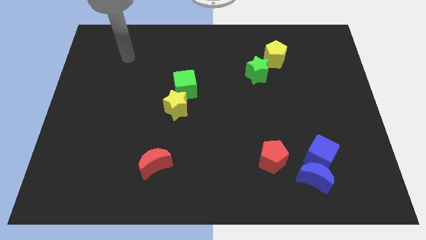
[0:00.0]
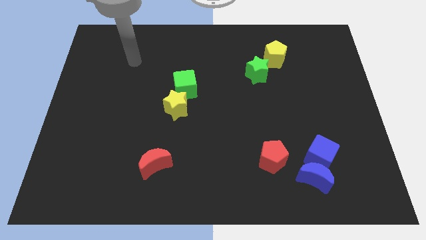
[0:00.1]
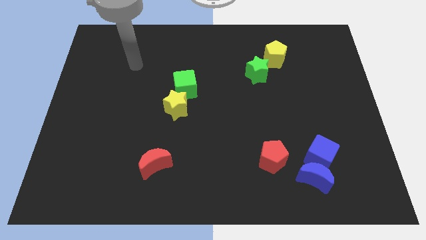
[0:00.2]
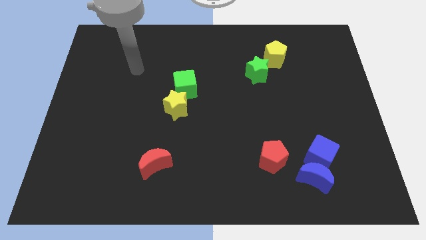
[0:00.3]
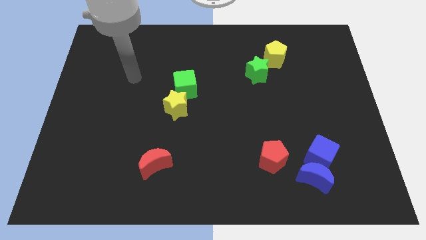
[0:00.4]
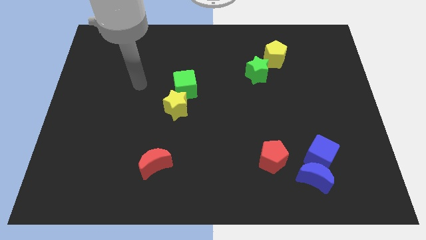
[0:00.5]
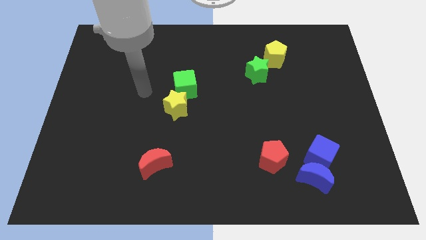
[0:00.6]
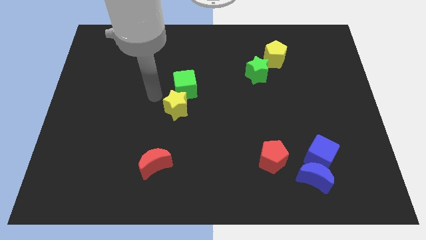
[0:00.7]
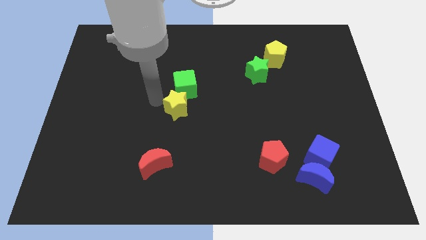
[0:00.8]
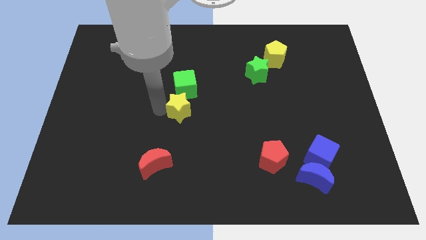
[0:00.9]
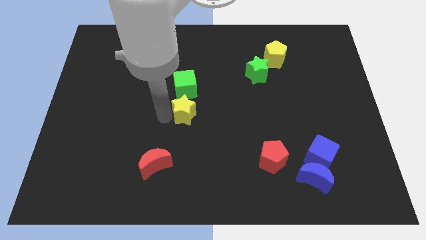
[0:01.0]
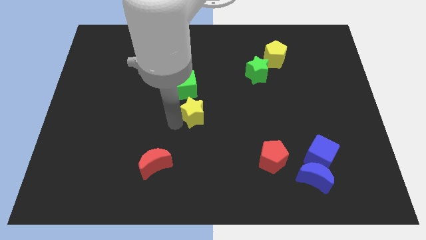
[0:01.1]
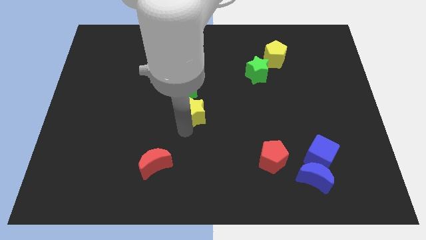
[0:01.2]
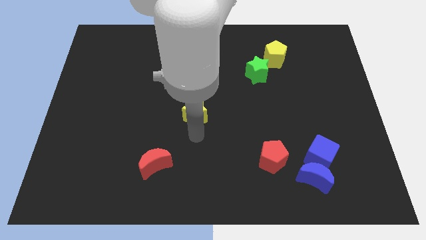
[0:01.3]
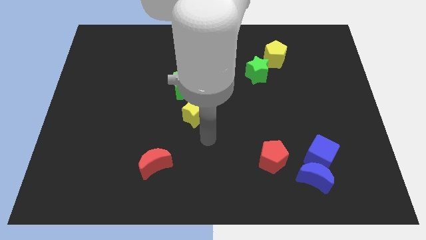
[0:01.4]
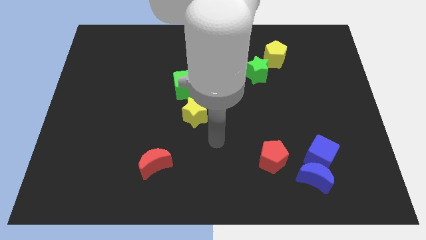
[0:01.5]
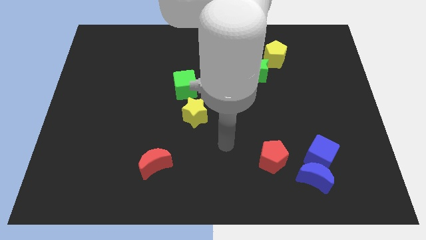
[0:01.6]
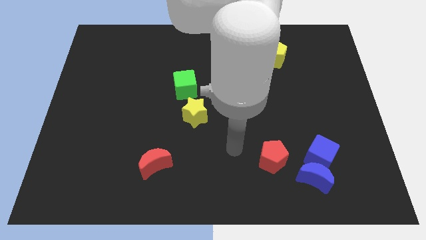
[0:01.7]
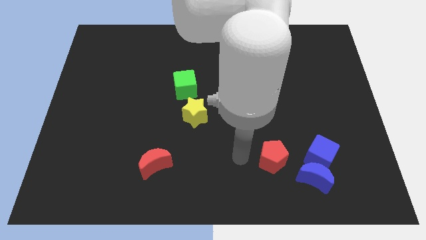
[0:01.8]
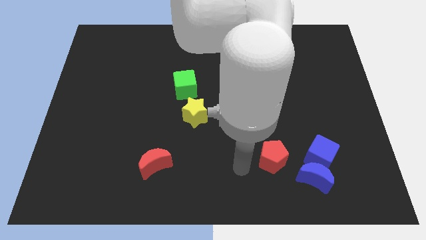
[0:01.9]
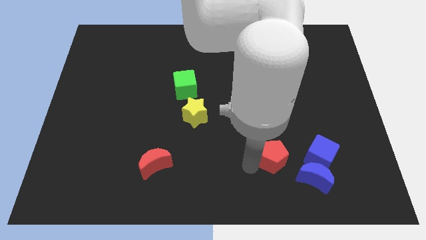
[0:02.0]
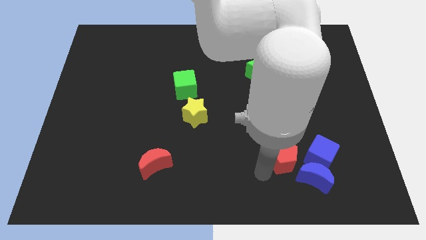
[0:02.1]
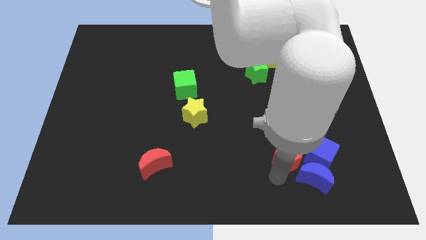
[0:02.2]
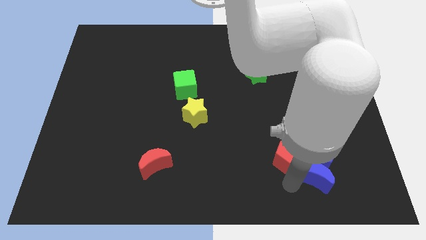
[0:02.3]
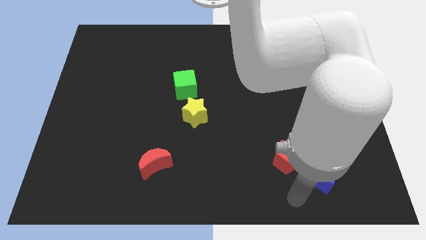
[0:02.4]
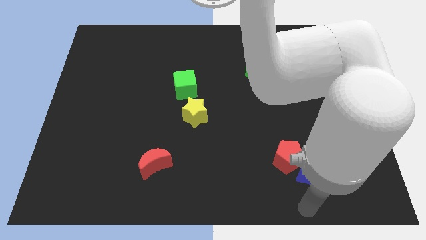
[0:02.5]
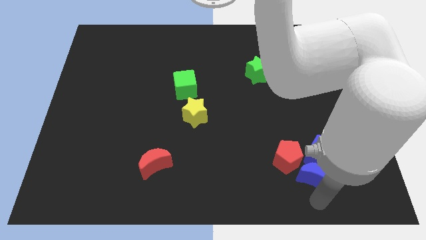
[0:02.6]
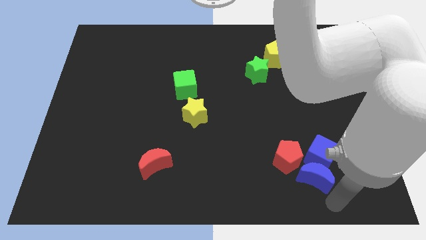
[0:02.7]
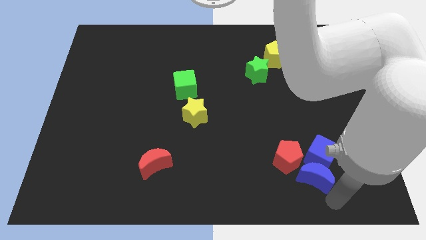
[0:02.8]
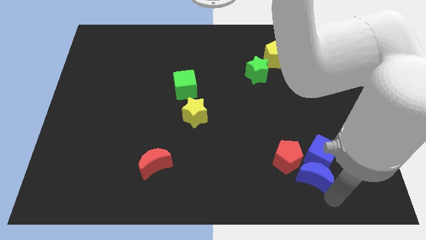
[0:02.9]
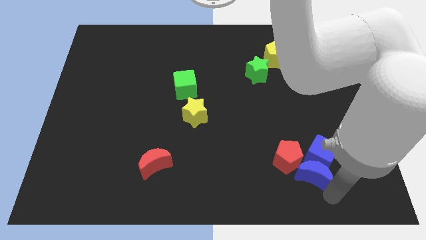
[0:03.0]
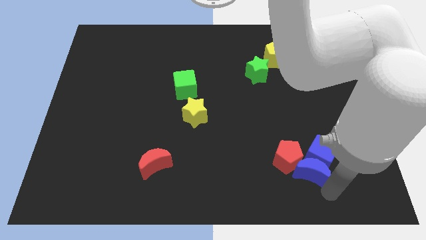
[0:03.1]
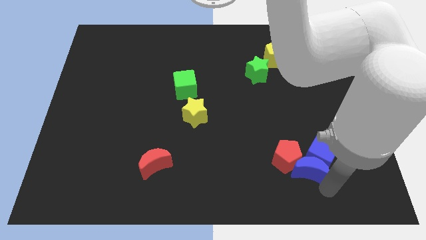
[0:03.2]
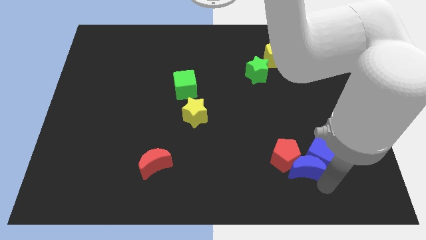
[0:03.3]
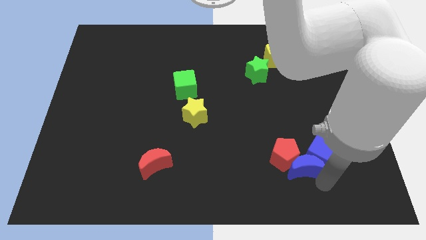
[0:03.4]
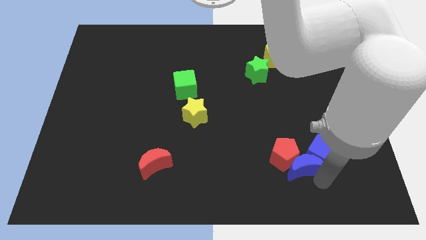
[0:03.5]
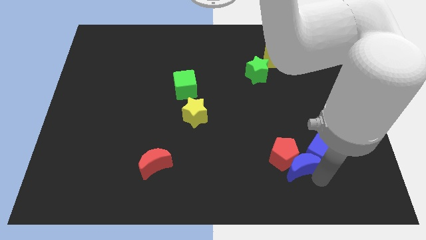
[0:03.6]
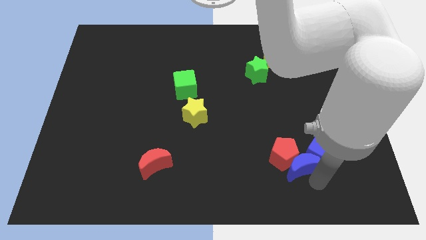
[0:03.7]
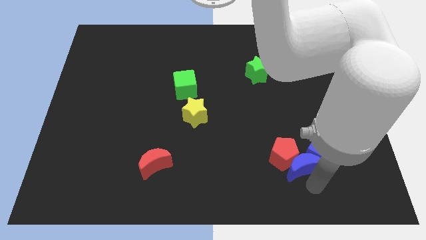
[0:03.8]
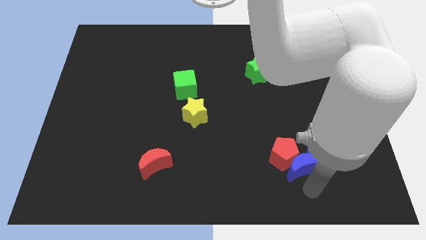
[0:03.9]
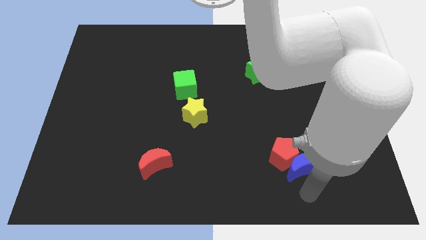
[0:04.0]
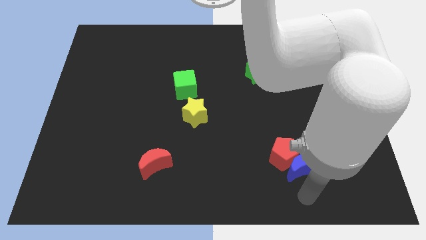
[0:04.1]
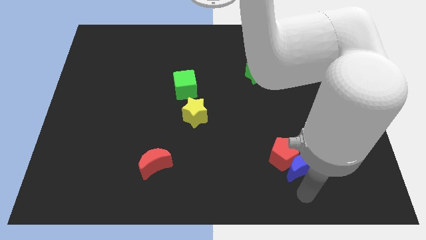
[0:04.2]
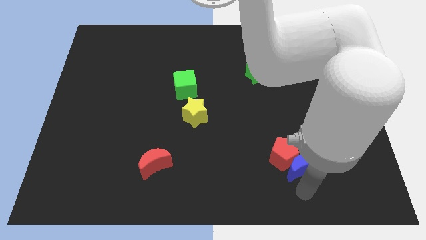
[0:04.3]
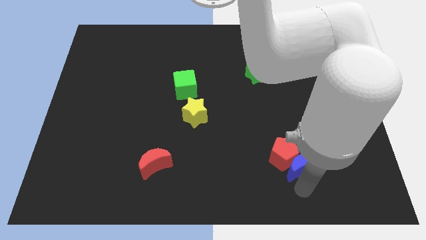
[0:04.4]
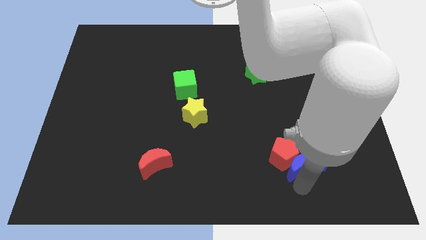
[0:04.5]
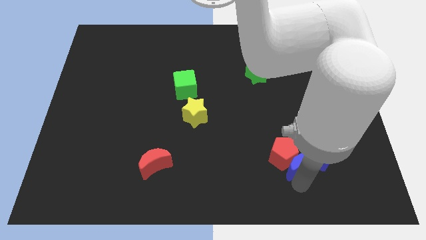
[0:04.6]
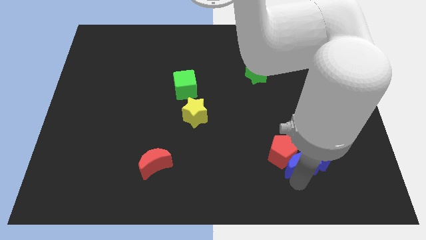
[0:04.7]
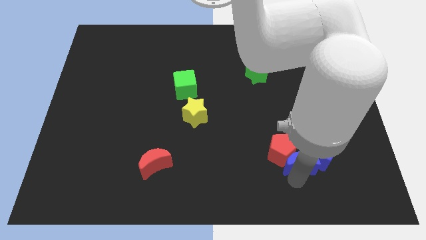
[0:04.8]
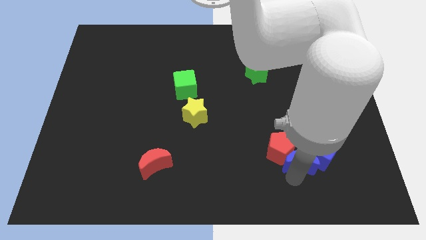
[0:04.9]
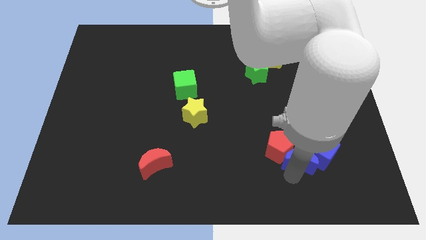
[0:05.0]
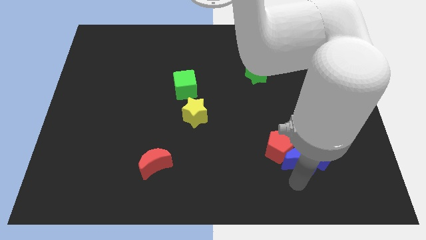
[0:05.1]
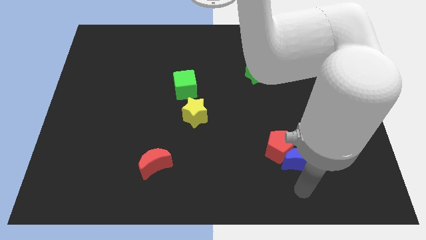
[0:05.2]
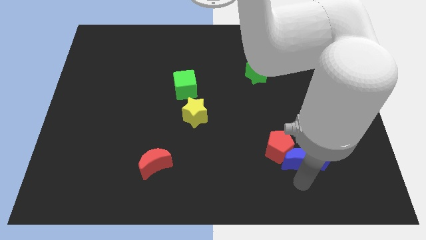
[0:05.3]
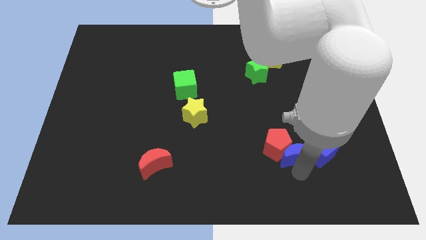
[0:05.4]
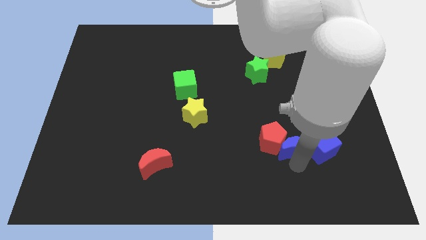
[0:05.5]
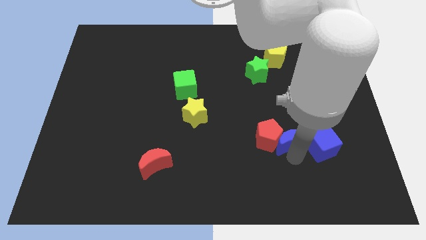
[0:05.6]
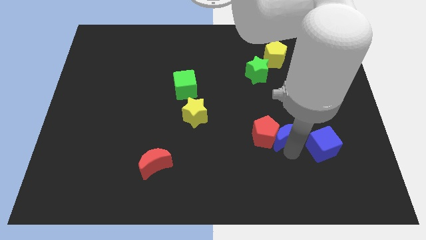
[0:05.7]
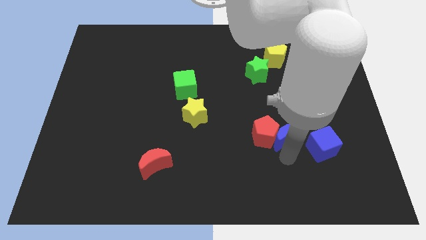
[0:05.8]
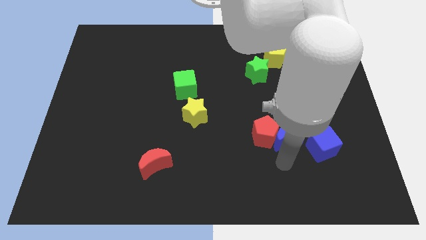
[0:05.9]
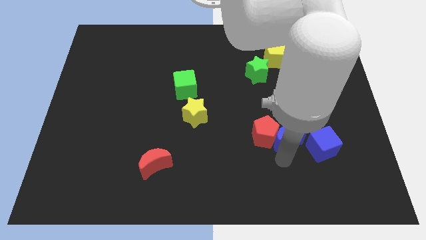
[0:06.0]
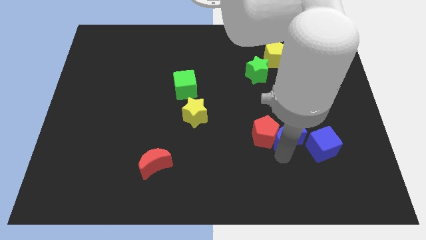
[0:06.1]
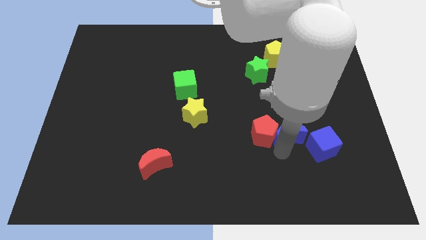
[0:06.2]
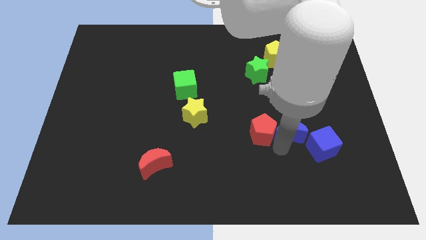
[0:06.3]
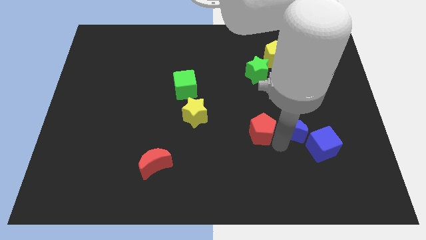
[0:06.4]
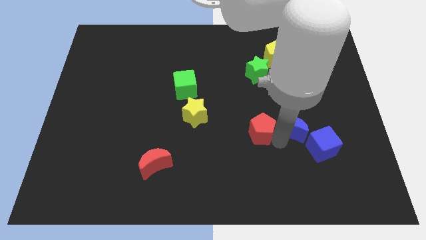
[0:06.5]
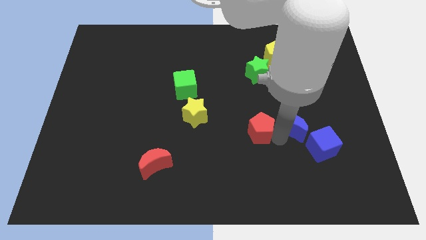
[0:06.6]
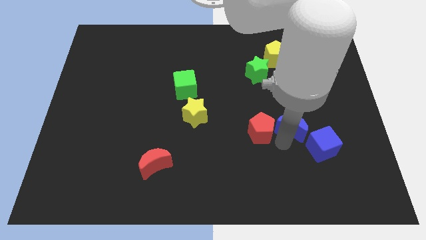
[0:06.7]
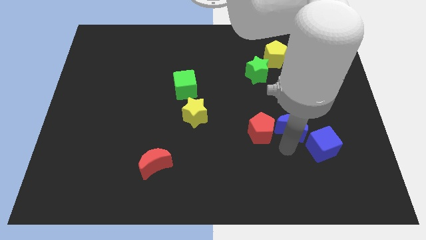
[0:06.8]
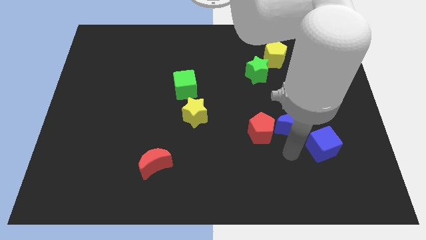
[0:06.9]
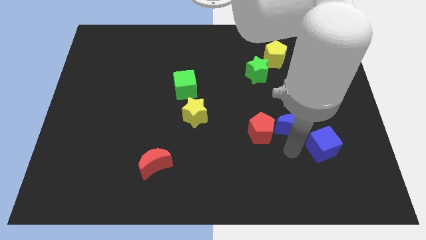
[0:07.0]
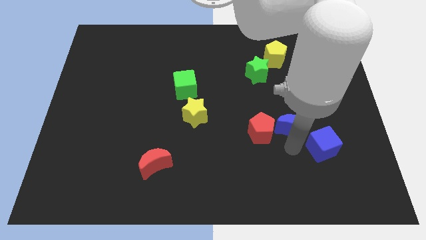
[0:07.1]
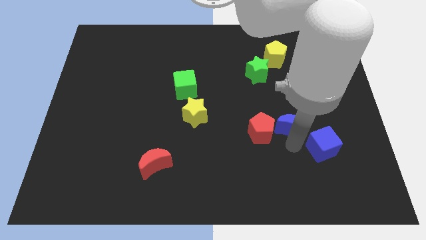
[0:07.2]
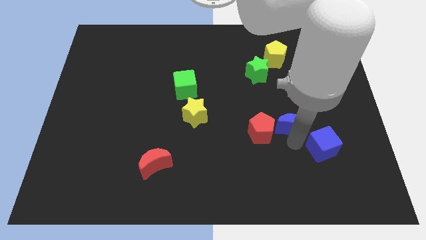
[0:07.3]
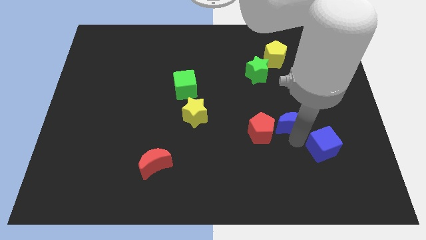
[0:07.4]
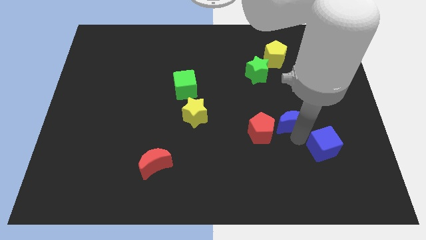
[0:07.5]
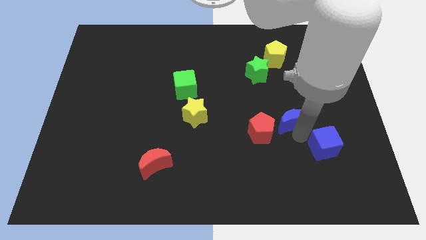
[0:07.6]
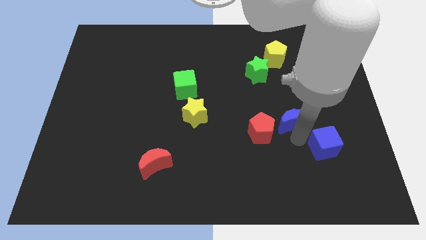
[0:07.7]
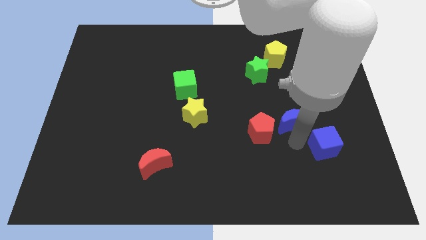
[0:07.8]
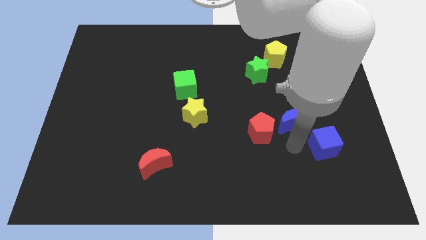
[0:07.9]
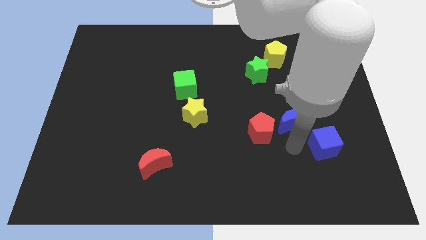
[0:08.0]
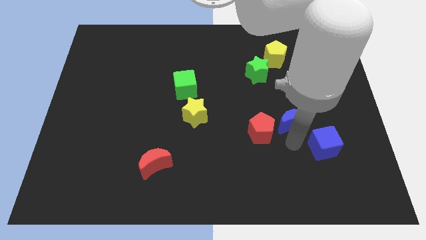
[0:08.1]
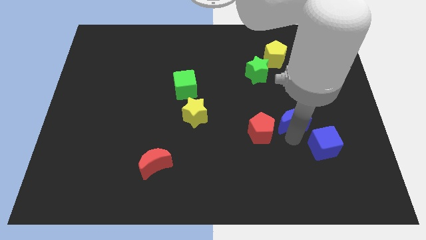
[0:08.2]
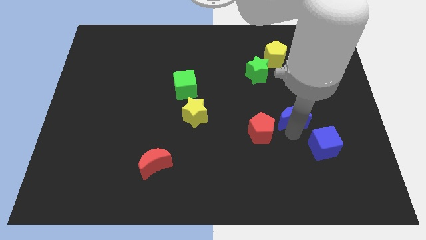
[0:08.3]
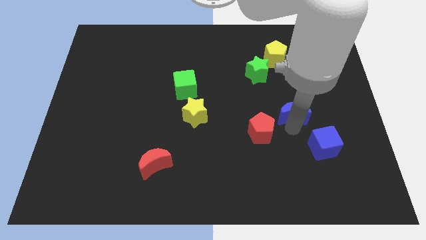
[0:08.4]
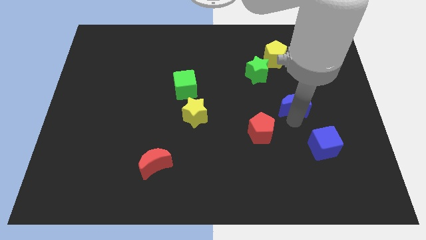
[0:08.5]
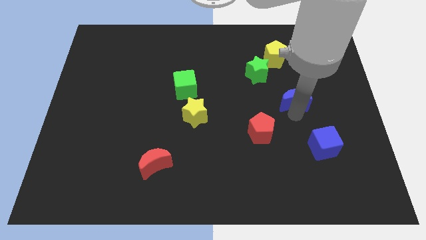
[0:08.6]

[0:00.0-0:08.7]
move the blue moon to the bottom right of the green star
